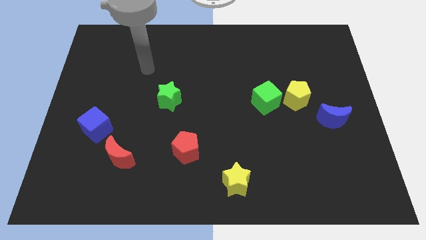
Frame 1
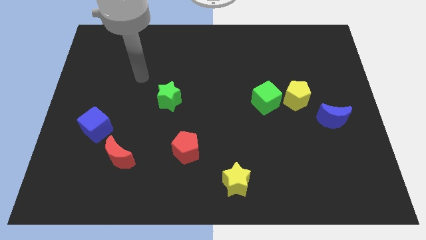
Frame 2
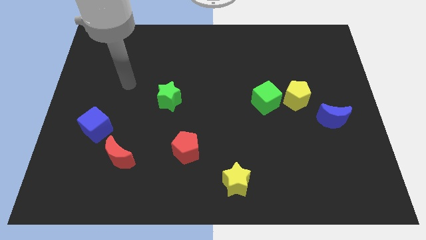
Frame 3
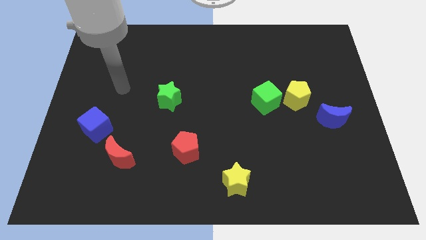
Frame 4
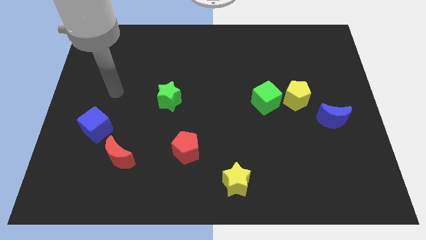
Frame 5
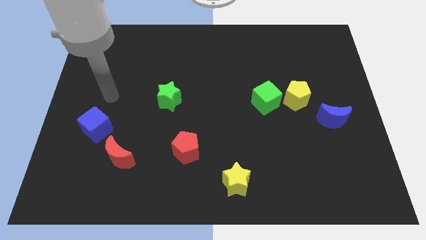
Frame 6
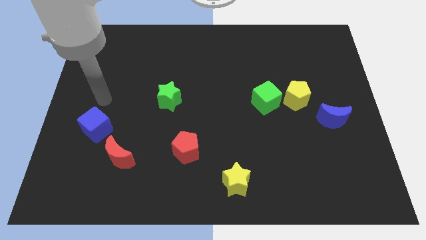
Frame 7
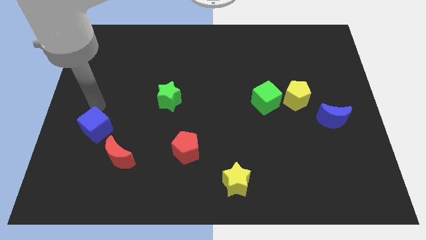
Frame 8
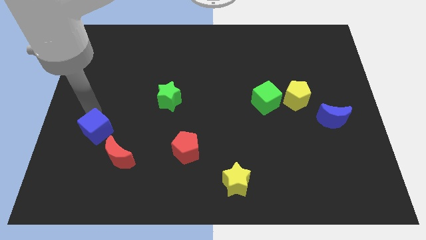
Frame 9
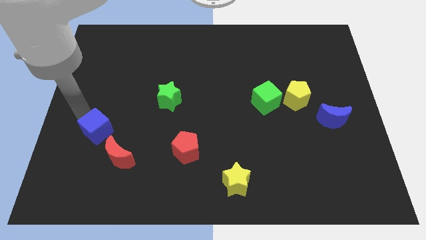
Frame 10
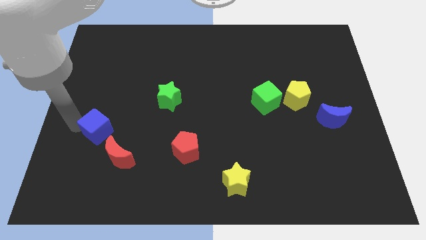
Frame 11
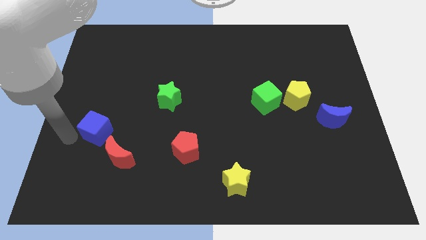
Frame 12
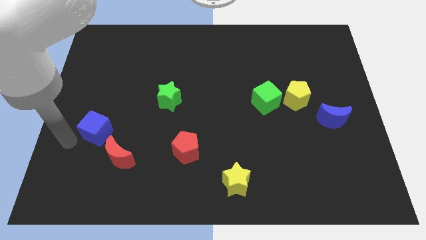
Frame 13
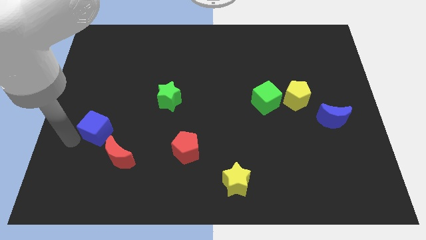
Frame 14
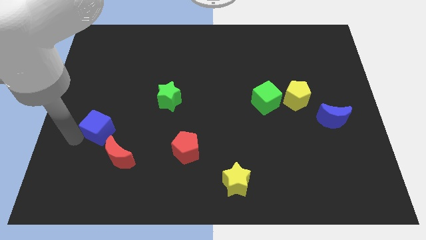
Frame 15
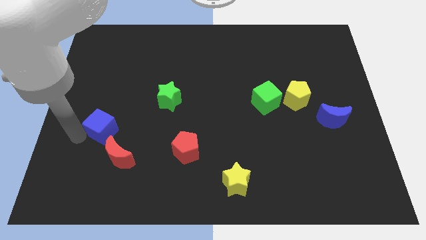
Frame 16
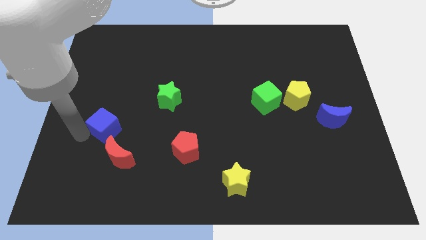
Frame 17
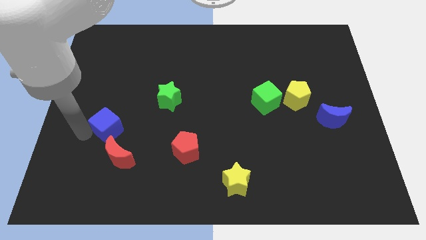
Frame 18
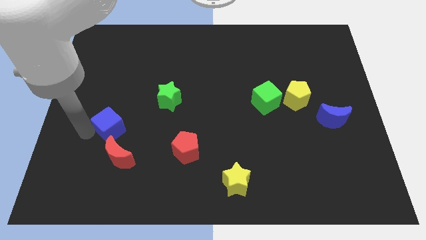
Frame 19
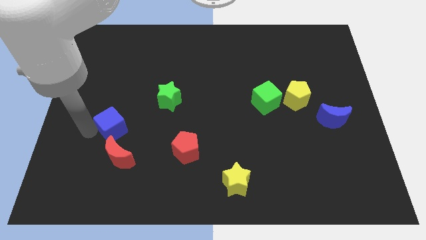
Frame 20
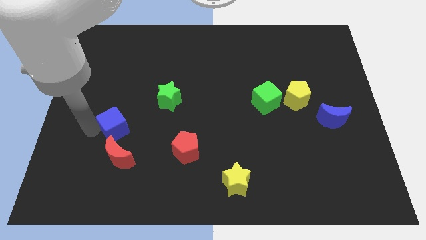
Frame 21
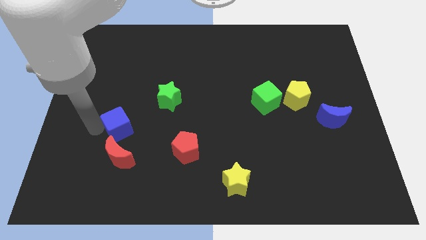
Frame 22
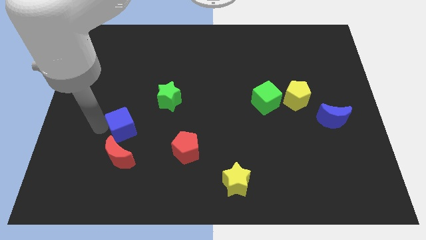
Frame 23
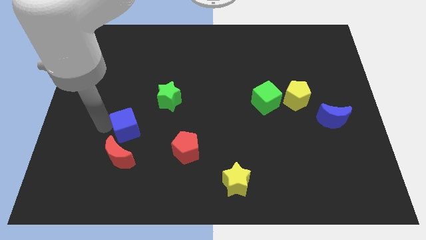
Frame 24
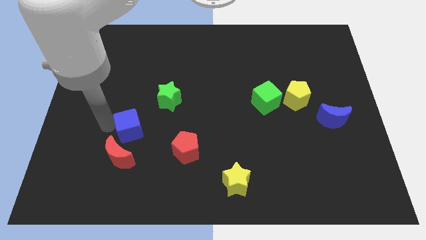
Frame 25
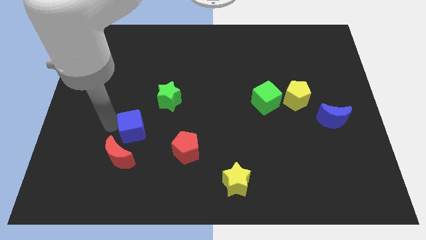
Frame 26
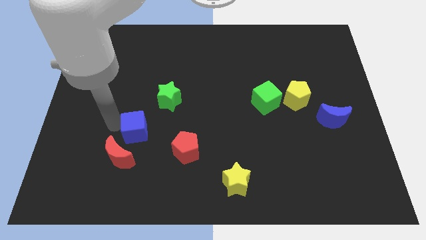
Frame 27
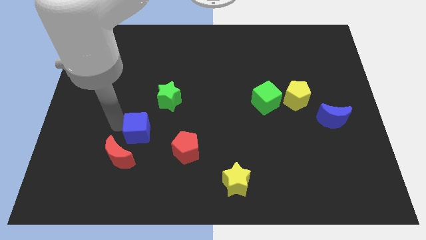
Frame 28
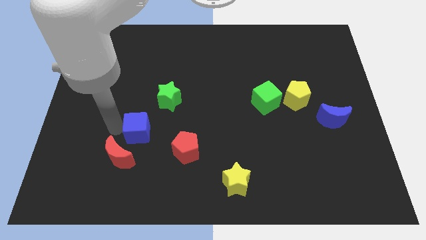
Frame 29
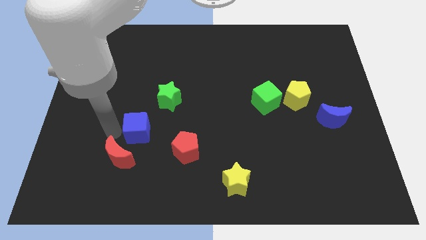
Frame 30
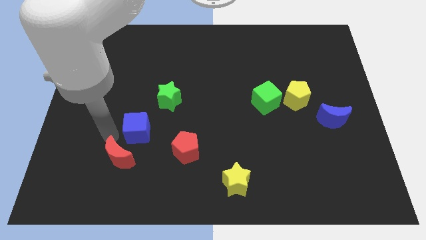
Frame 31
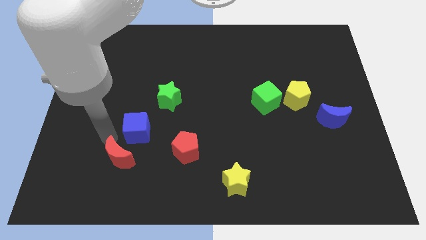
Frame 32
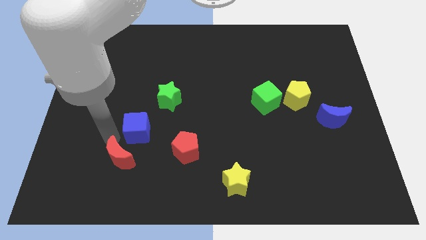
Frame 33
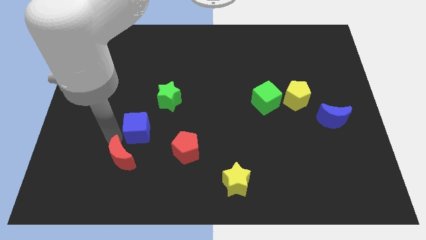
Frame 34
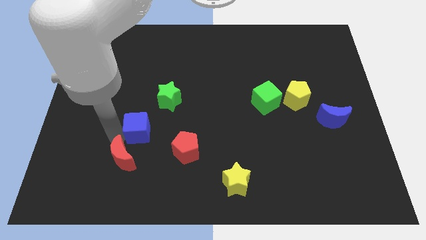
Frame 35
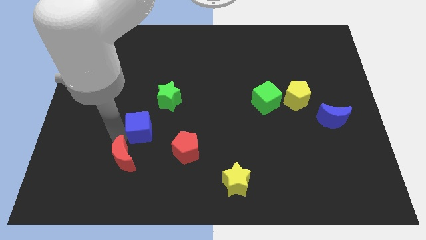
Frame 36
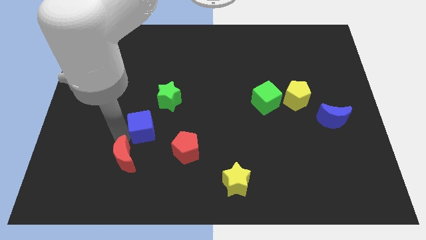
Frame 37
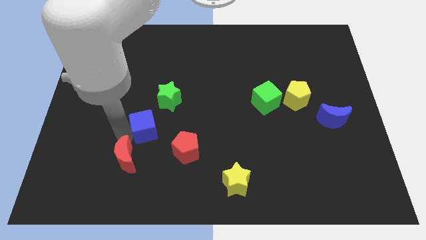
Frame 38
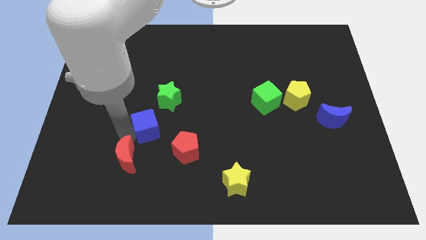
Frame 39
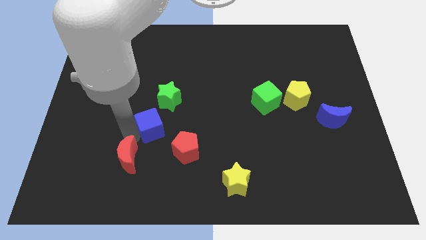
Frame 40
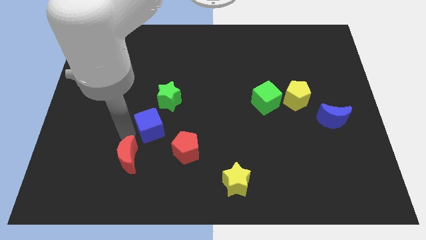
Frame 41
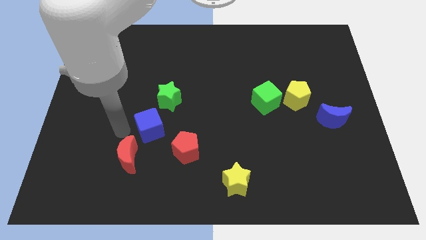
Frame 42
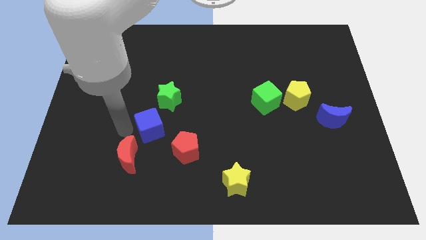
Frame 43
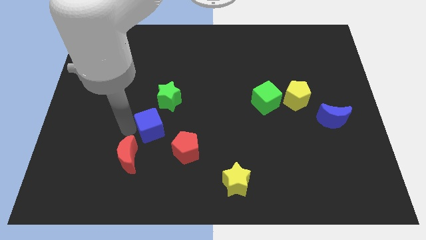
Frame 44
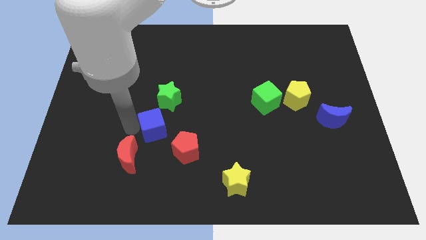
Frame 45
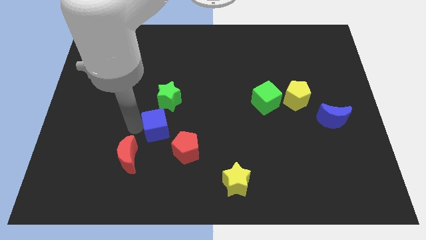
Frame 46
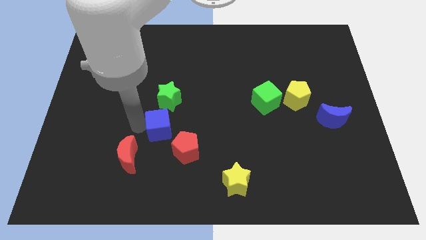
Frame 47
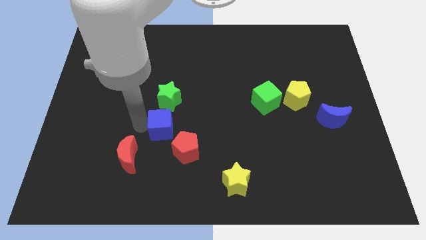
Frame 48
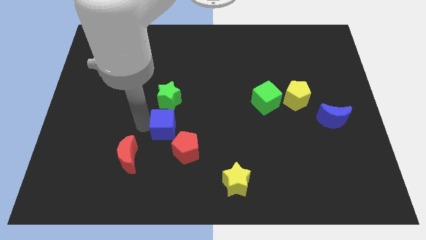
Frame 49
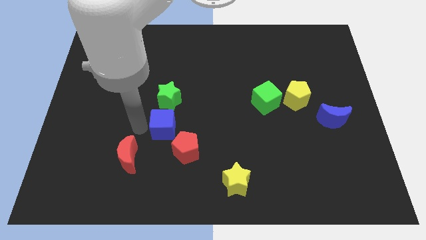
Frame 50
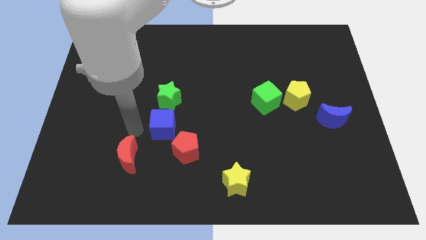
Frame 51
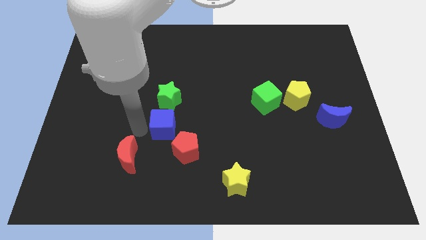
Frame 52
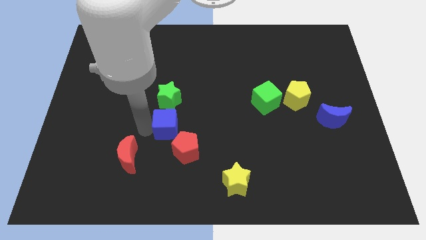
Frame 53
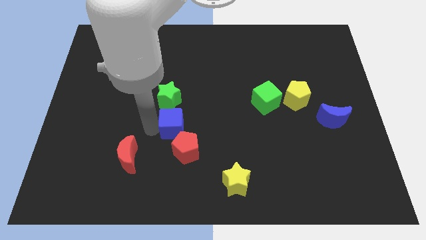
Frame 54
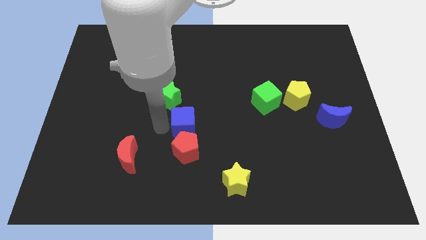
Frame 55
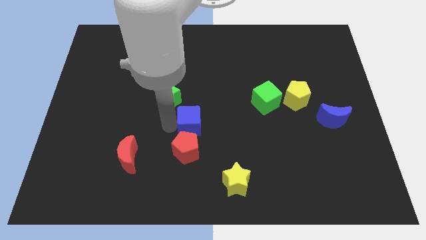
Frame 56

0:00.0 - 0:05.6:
put the blue cube to the top right of the red pentagon

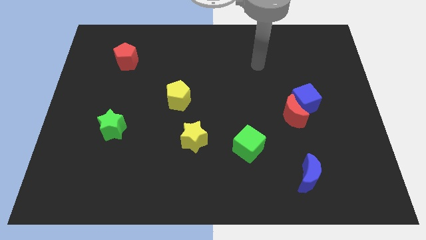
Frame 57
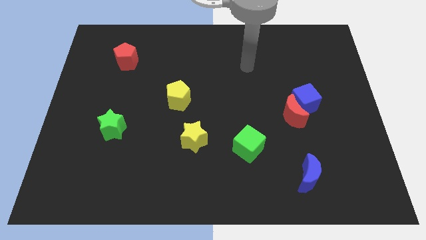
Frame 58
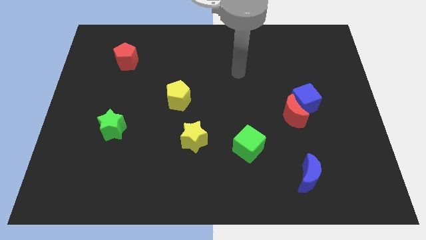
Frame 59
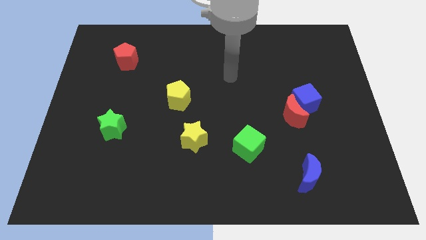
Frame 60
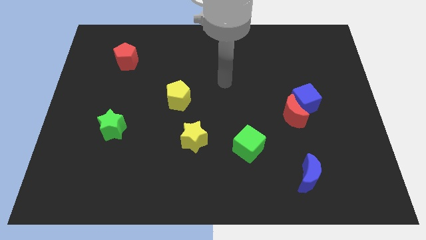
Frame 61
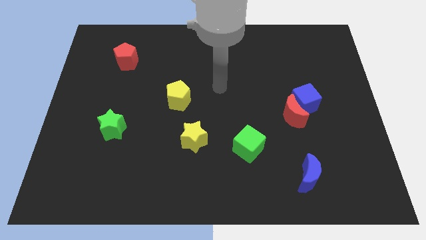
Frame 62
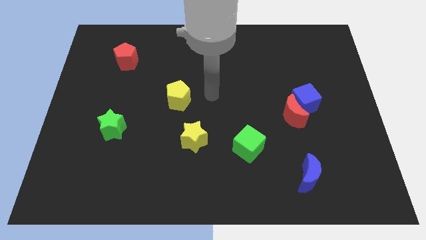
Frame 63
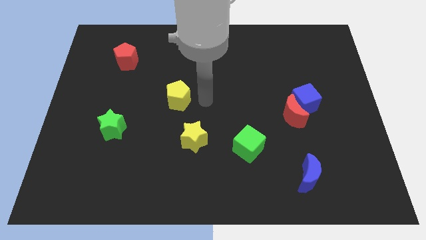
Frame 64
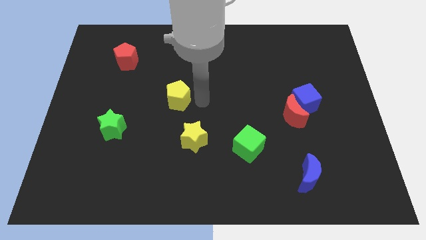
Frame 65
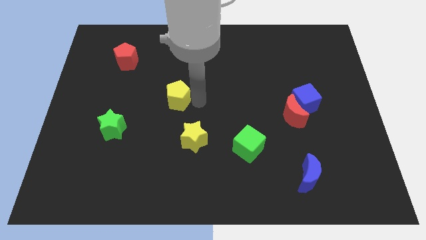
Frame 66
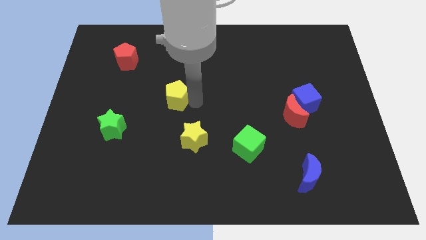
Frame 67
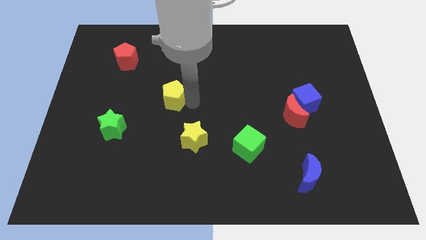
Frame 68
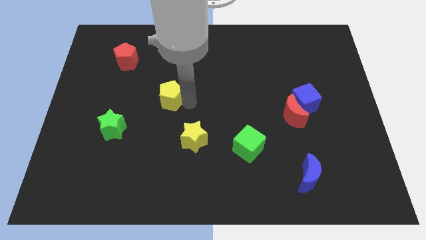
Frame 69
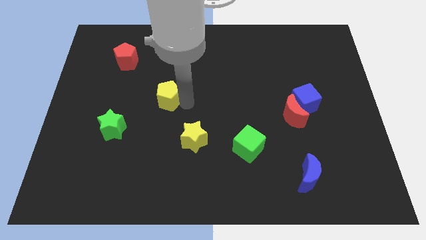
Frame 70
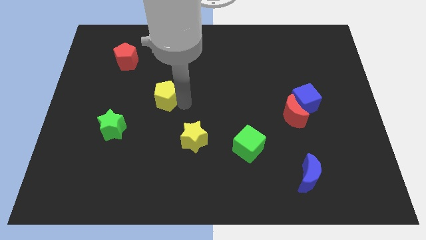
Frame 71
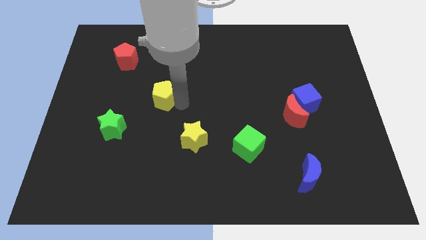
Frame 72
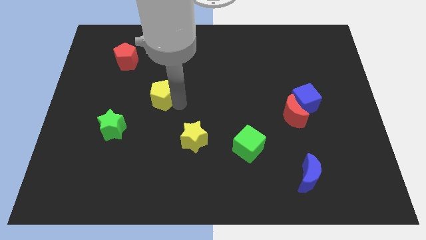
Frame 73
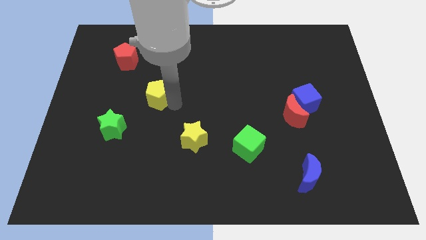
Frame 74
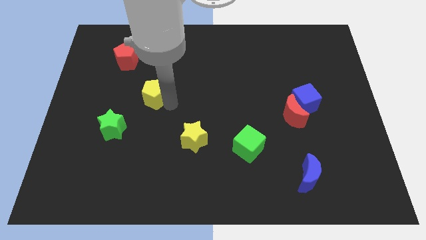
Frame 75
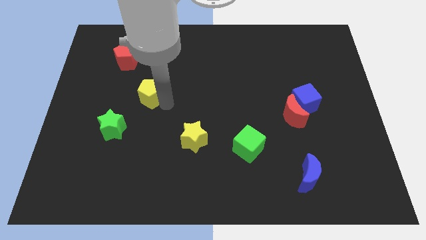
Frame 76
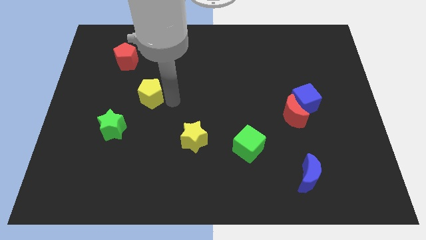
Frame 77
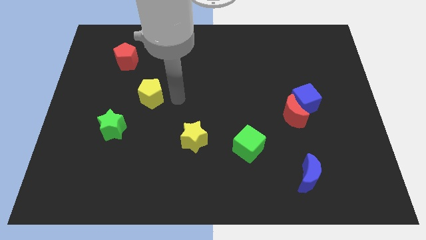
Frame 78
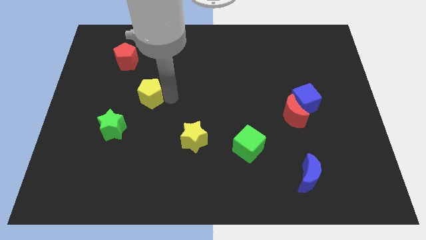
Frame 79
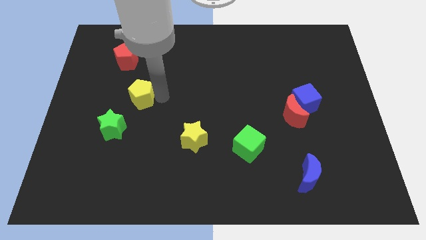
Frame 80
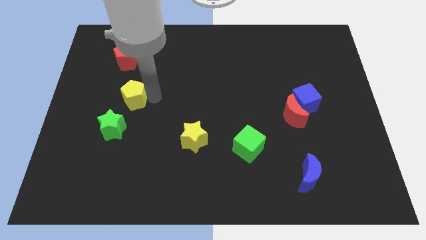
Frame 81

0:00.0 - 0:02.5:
push the yellow pentagon to the top of the green star
